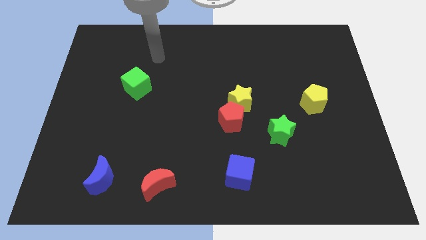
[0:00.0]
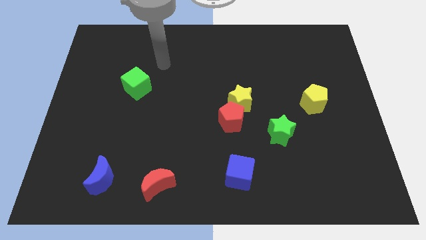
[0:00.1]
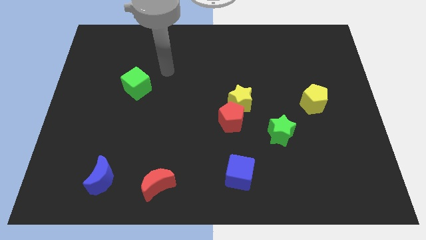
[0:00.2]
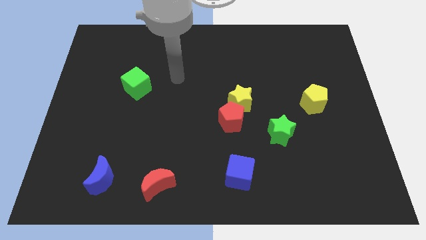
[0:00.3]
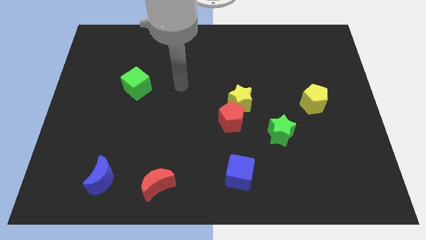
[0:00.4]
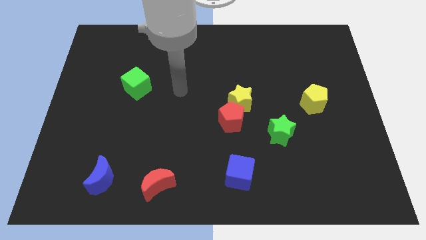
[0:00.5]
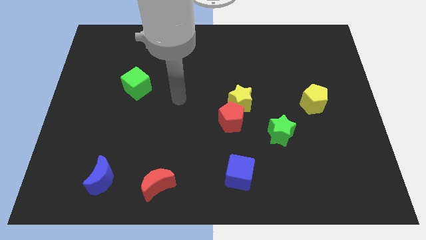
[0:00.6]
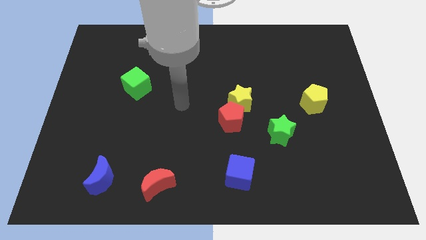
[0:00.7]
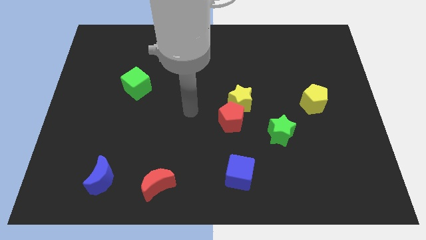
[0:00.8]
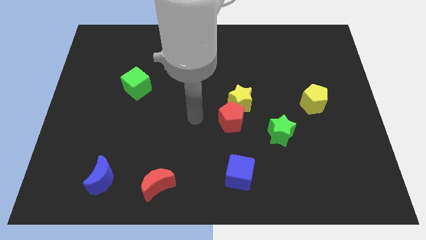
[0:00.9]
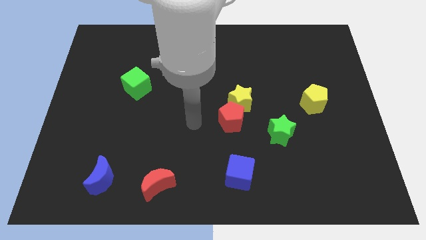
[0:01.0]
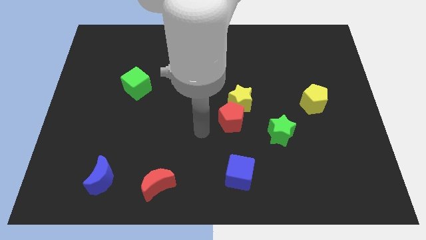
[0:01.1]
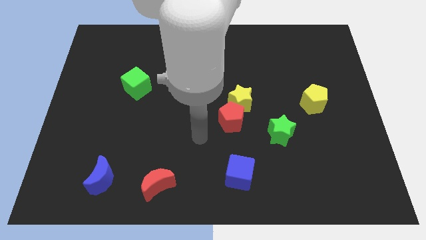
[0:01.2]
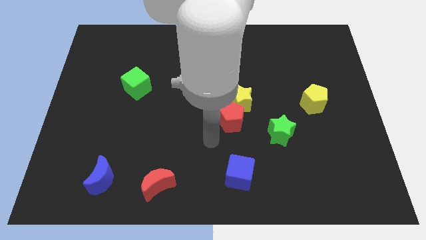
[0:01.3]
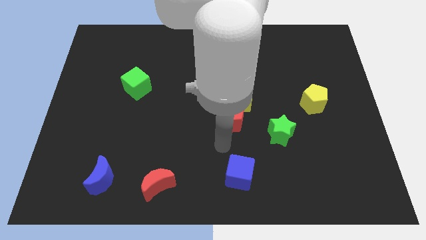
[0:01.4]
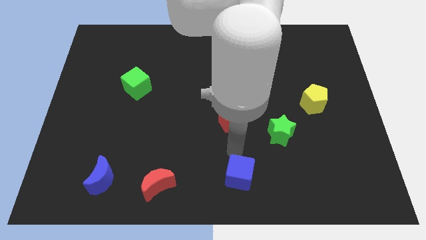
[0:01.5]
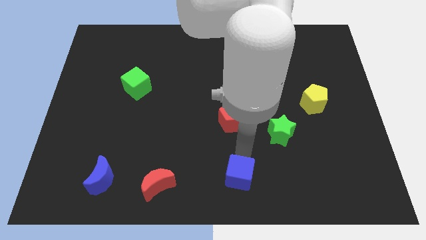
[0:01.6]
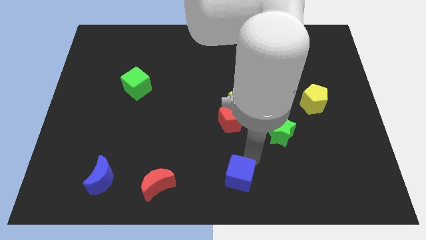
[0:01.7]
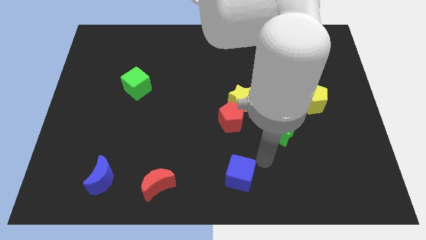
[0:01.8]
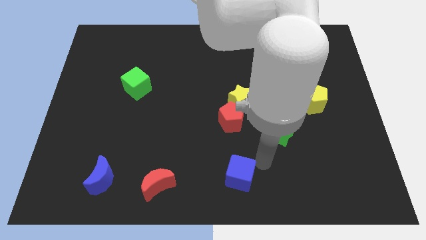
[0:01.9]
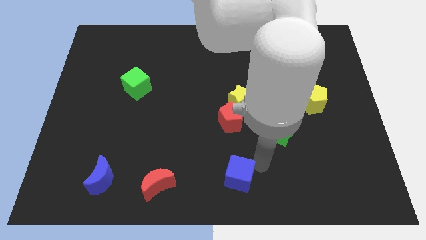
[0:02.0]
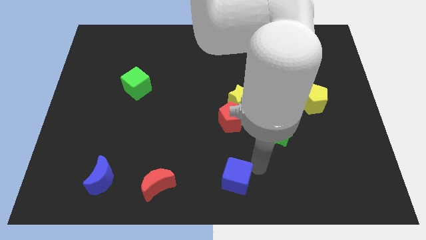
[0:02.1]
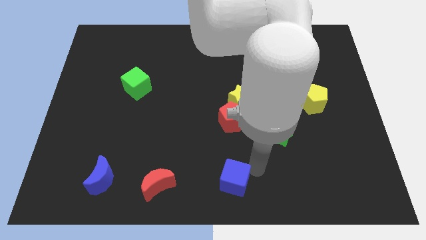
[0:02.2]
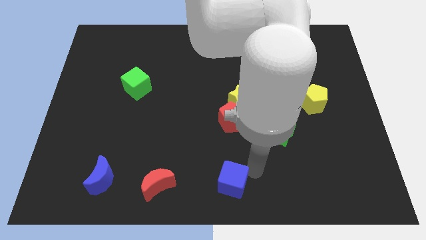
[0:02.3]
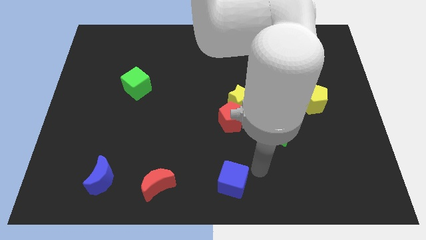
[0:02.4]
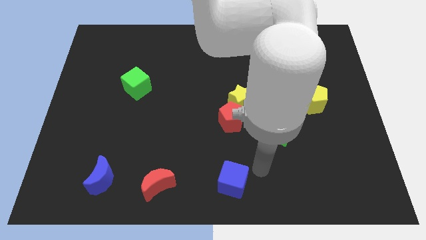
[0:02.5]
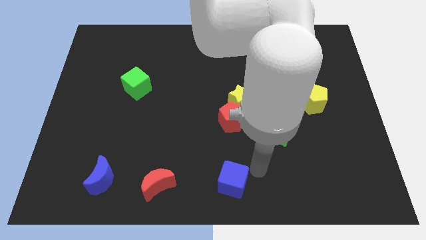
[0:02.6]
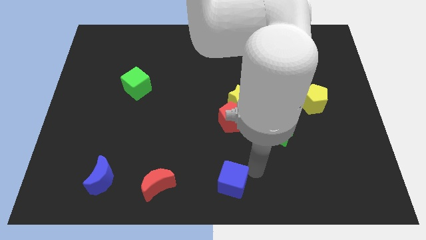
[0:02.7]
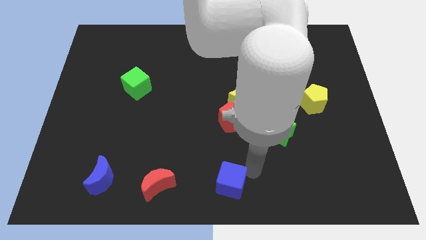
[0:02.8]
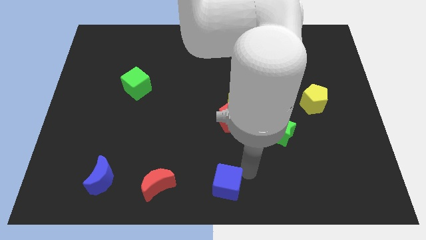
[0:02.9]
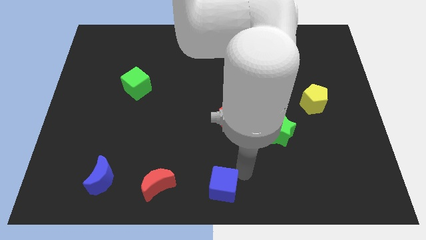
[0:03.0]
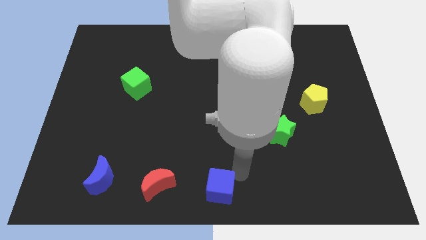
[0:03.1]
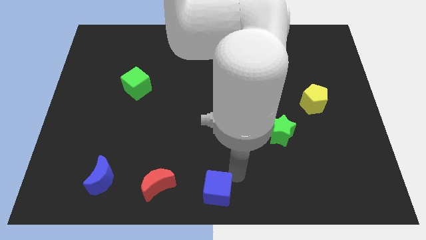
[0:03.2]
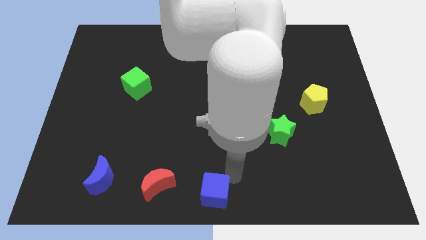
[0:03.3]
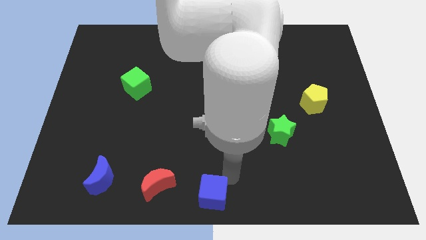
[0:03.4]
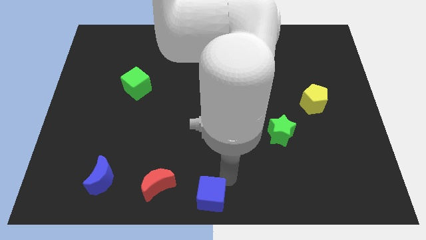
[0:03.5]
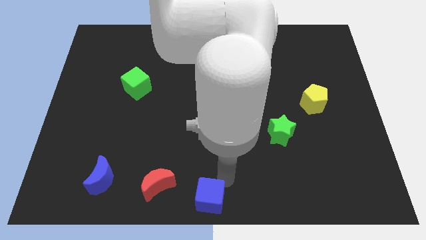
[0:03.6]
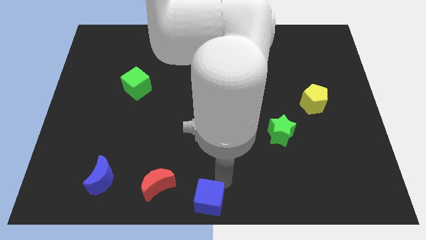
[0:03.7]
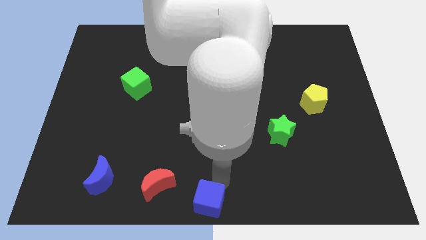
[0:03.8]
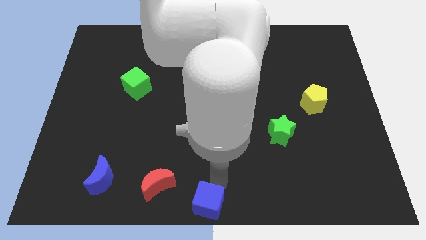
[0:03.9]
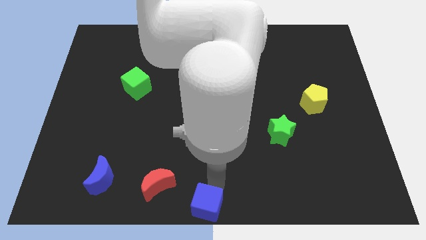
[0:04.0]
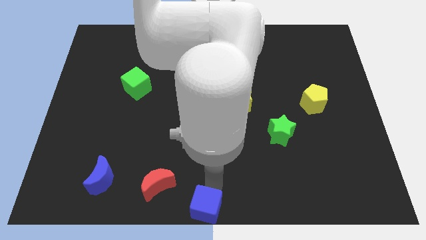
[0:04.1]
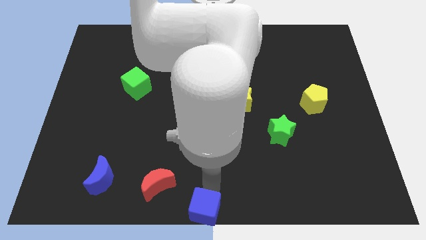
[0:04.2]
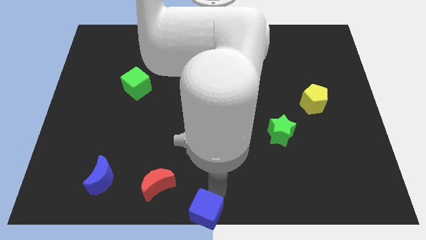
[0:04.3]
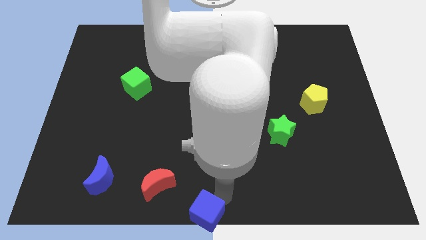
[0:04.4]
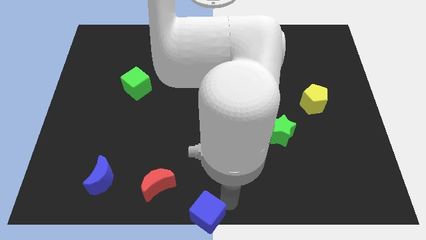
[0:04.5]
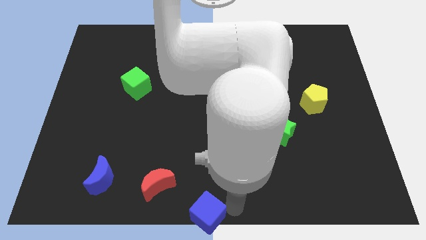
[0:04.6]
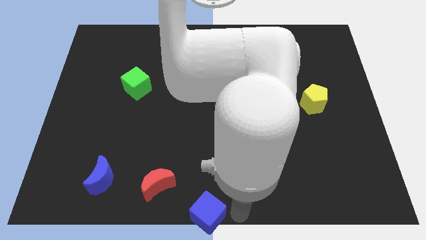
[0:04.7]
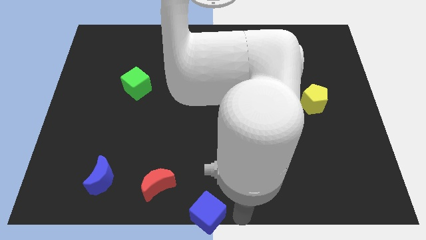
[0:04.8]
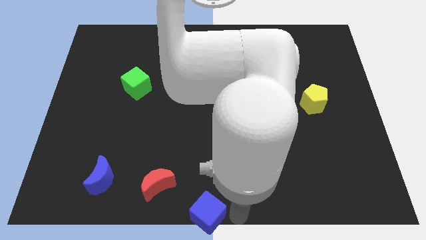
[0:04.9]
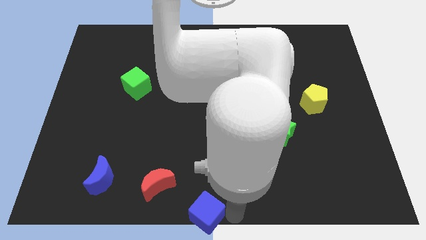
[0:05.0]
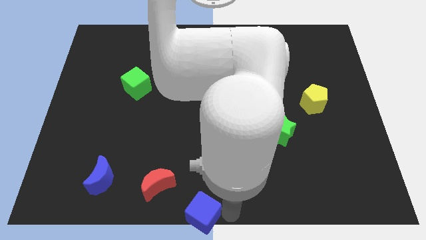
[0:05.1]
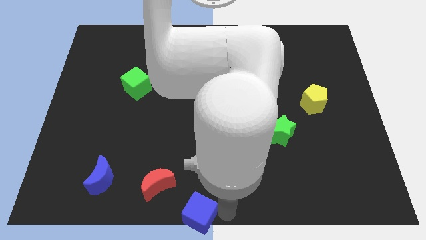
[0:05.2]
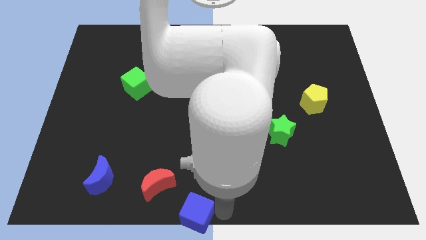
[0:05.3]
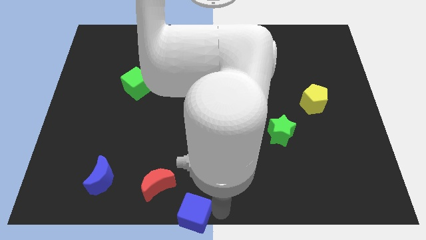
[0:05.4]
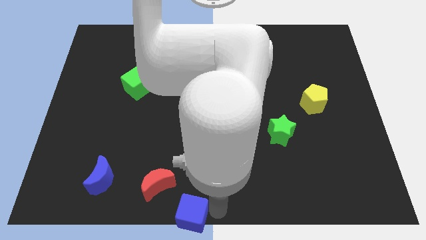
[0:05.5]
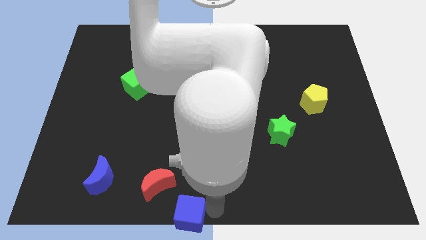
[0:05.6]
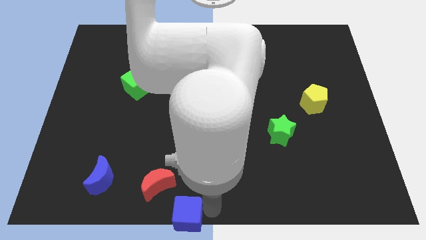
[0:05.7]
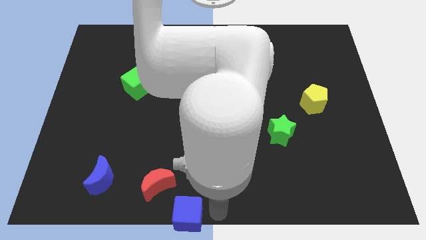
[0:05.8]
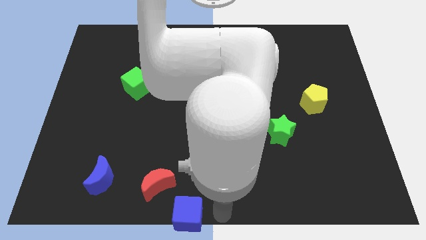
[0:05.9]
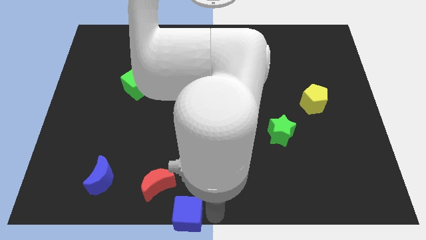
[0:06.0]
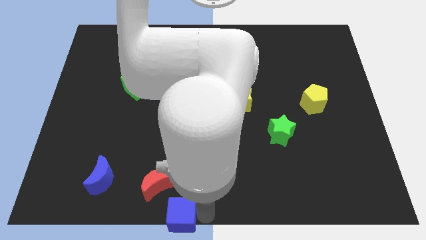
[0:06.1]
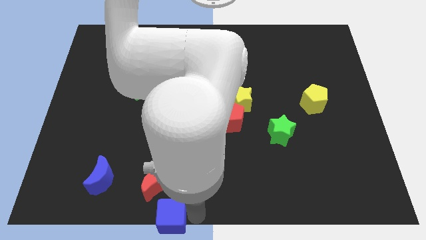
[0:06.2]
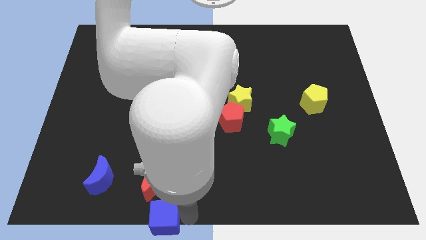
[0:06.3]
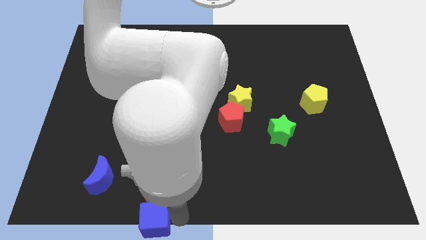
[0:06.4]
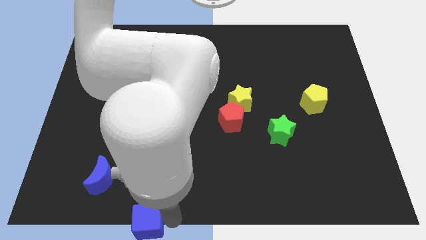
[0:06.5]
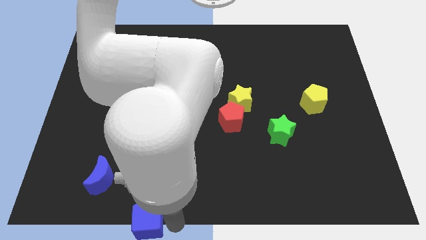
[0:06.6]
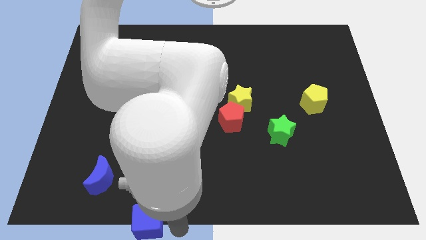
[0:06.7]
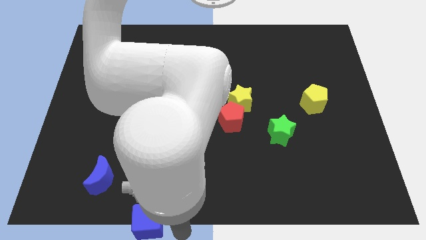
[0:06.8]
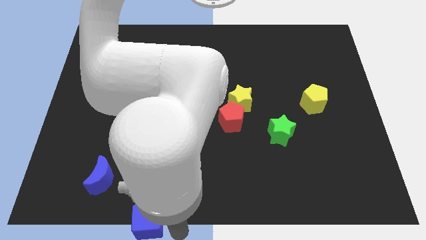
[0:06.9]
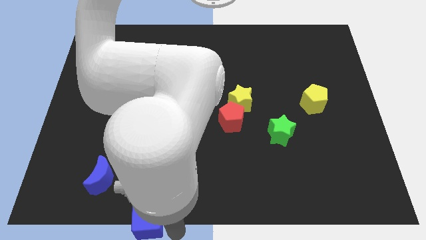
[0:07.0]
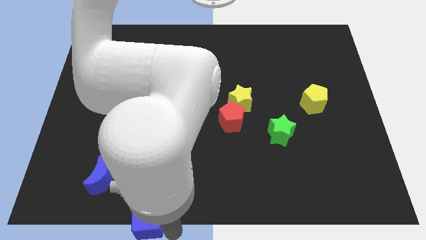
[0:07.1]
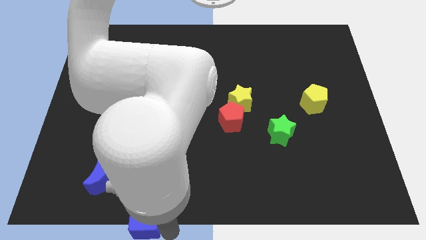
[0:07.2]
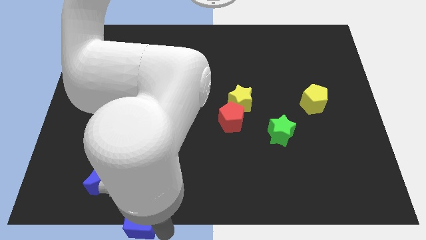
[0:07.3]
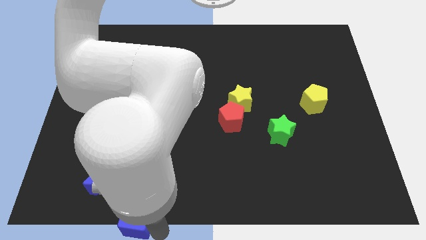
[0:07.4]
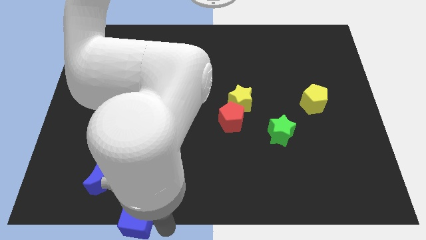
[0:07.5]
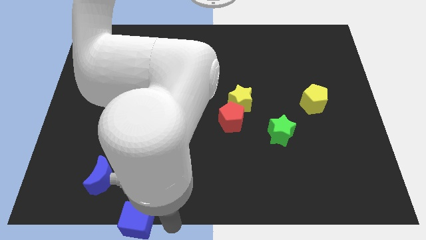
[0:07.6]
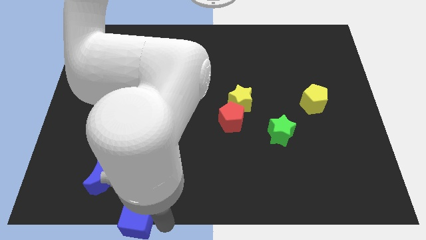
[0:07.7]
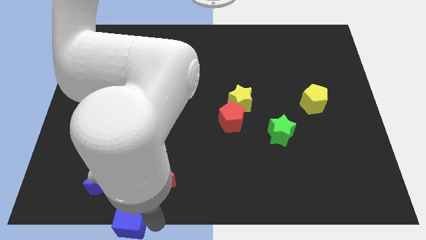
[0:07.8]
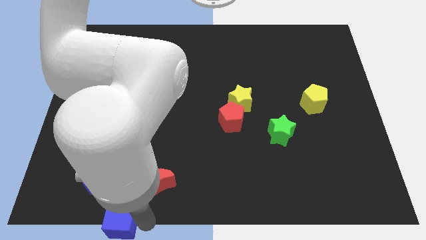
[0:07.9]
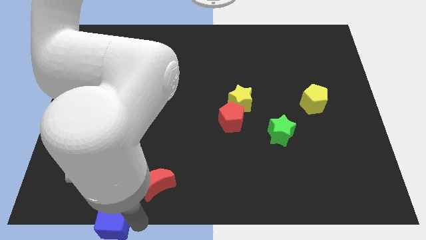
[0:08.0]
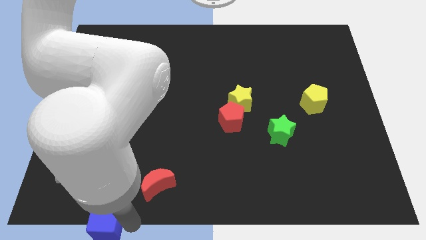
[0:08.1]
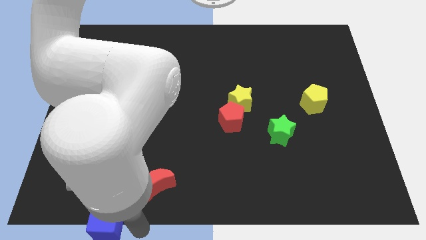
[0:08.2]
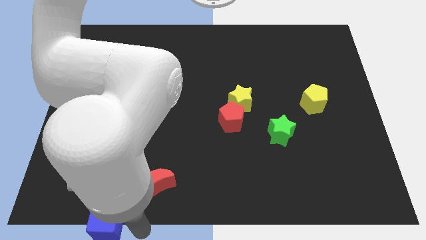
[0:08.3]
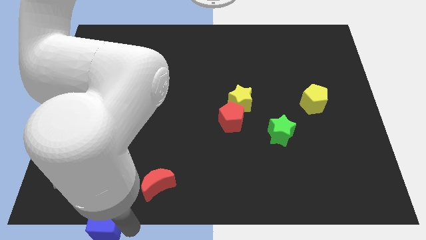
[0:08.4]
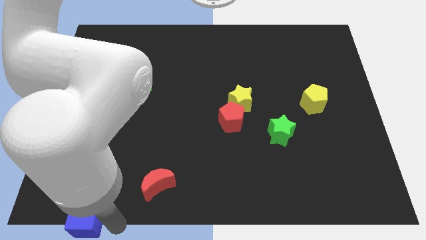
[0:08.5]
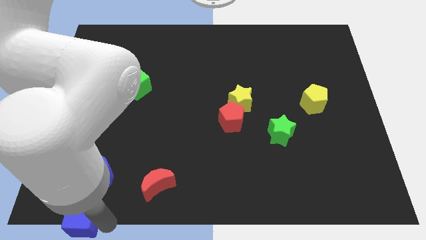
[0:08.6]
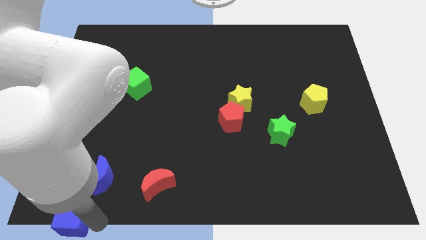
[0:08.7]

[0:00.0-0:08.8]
slide the blue cube to the bottom left of the board
